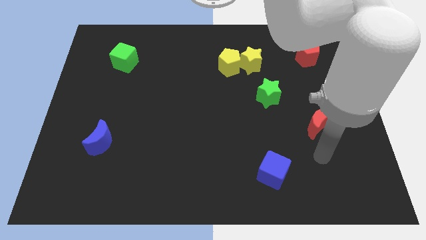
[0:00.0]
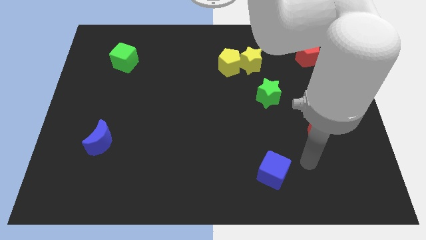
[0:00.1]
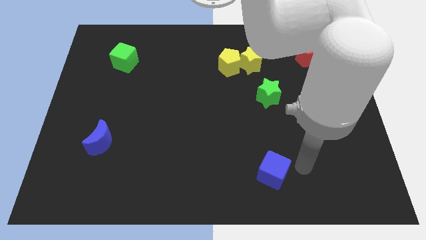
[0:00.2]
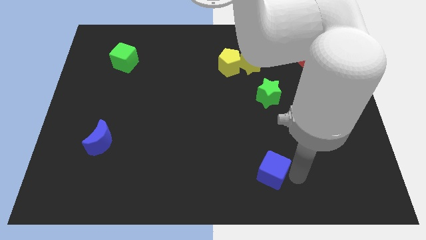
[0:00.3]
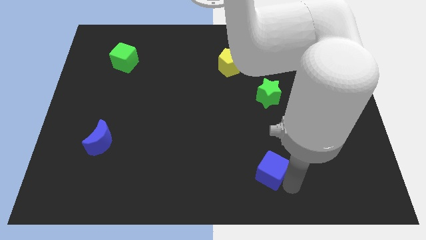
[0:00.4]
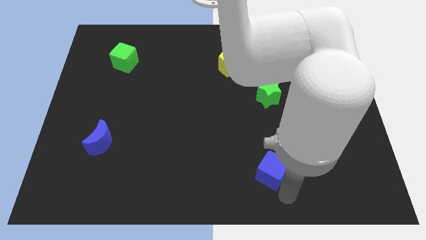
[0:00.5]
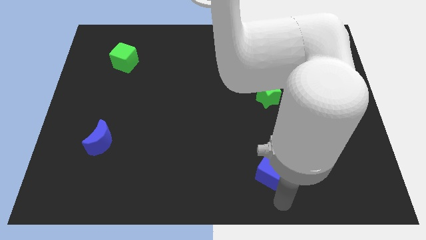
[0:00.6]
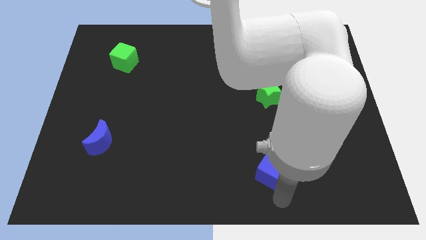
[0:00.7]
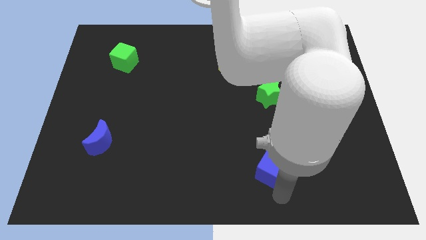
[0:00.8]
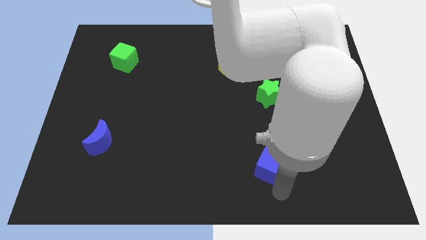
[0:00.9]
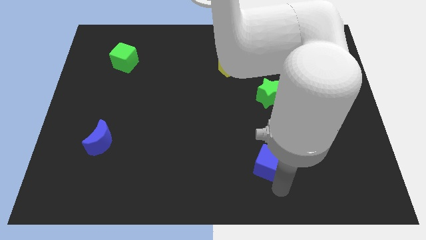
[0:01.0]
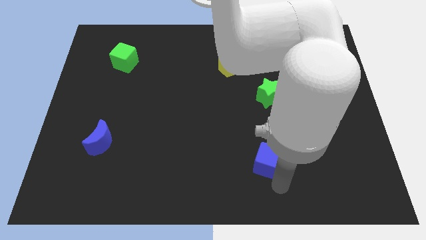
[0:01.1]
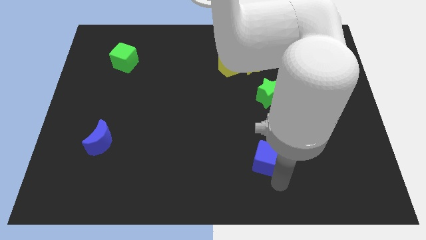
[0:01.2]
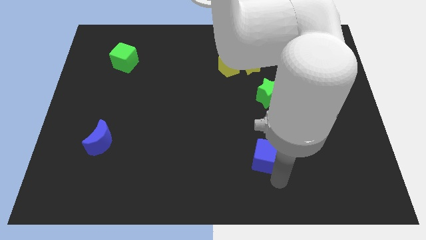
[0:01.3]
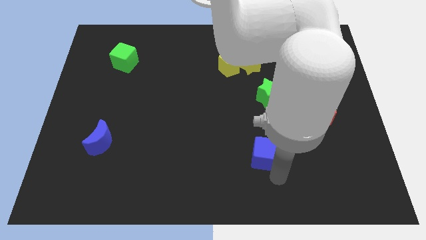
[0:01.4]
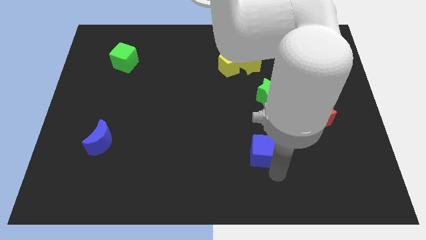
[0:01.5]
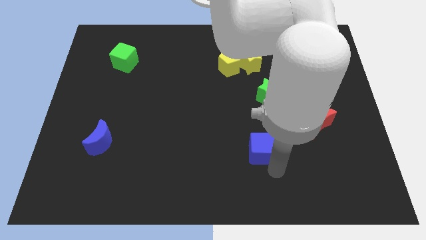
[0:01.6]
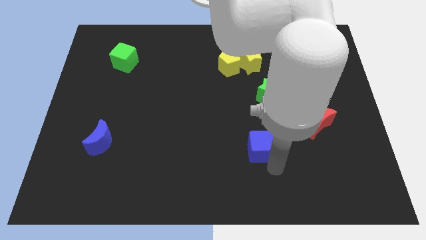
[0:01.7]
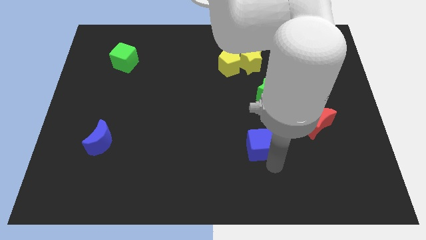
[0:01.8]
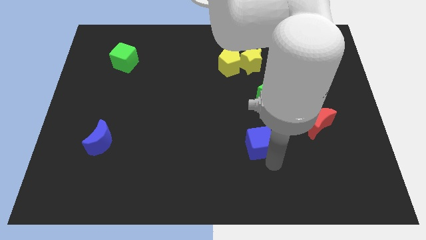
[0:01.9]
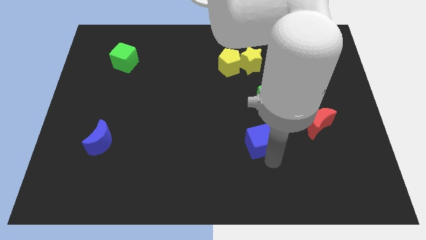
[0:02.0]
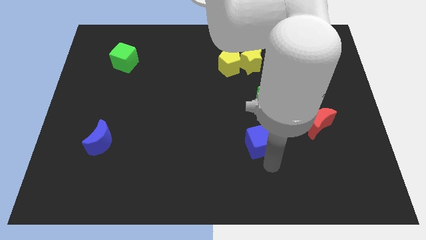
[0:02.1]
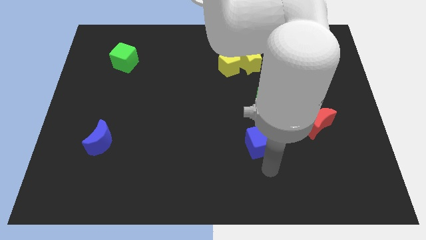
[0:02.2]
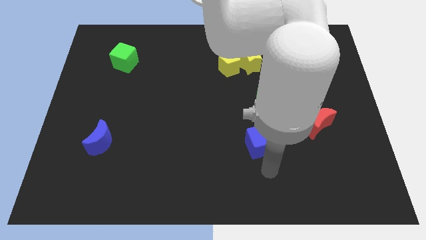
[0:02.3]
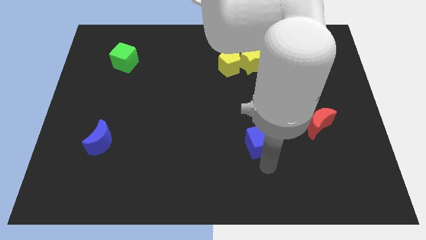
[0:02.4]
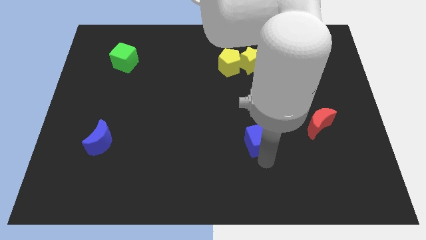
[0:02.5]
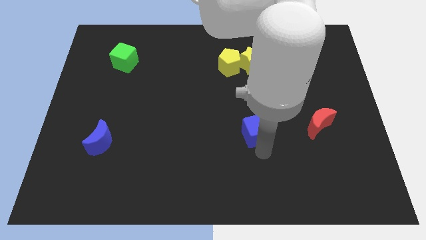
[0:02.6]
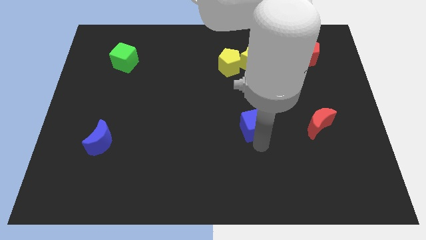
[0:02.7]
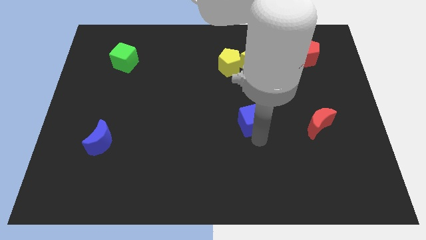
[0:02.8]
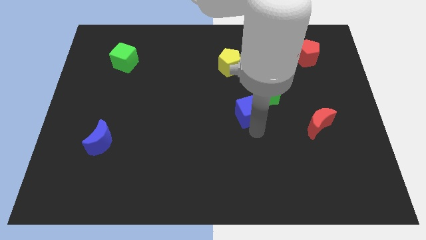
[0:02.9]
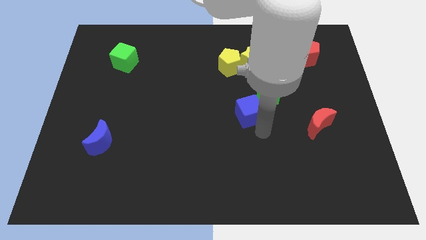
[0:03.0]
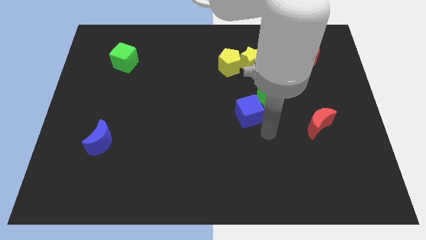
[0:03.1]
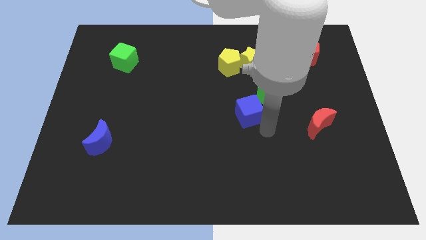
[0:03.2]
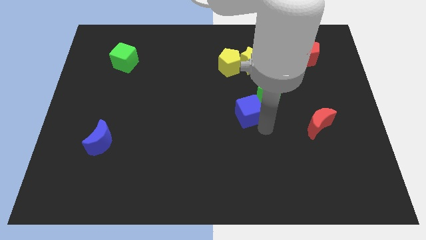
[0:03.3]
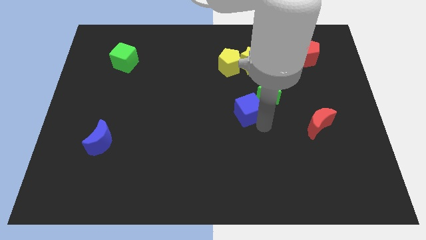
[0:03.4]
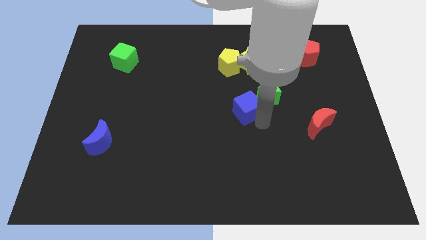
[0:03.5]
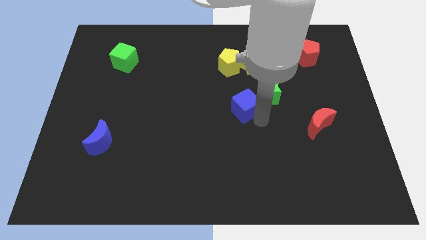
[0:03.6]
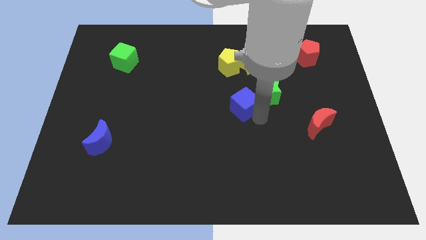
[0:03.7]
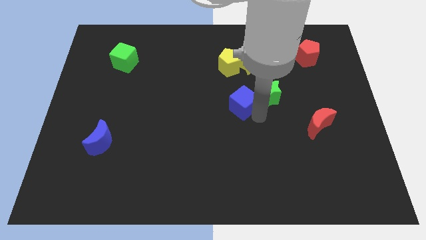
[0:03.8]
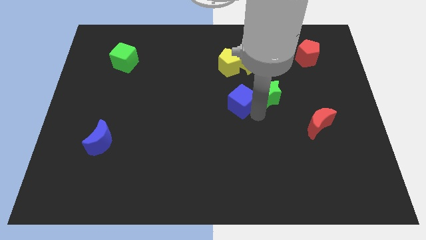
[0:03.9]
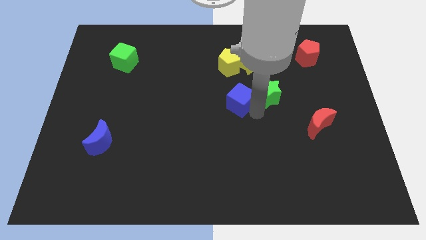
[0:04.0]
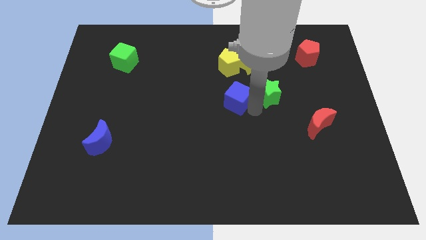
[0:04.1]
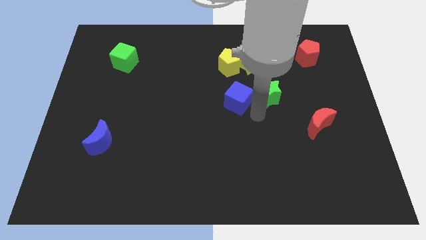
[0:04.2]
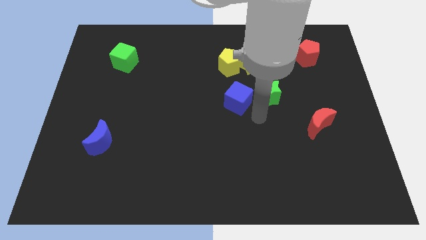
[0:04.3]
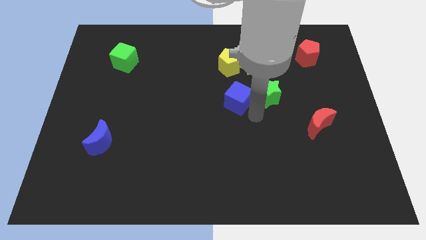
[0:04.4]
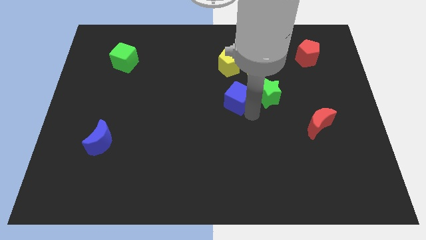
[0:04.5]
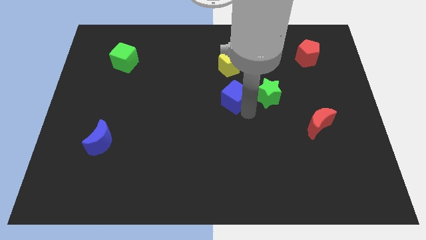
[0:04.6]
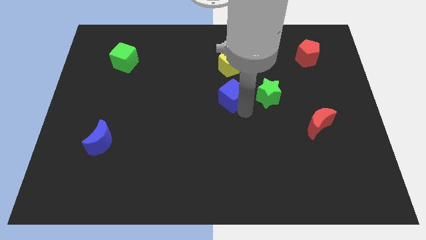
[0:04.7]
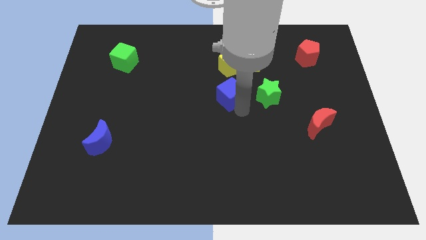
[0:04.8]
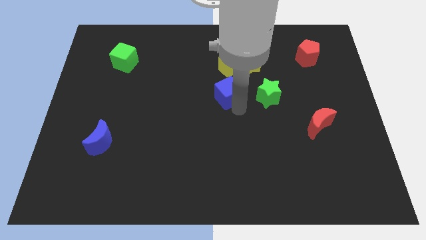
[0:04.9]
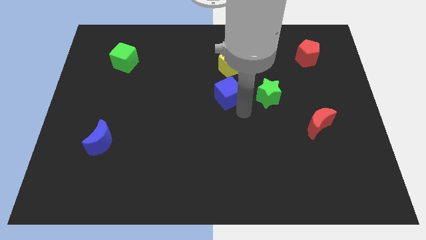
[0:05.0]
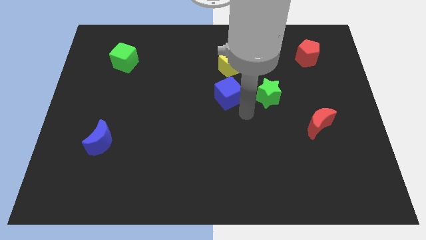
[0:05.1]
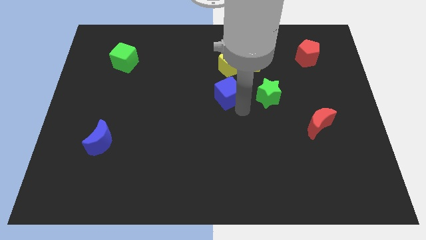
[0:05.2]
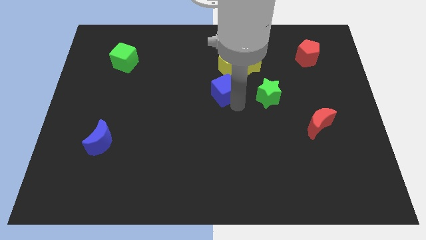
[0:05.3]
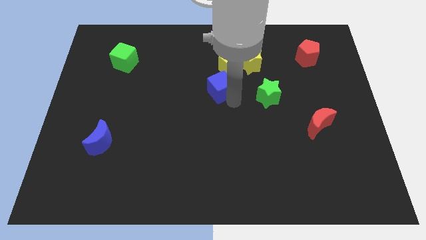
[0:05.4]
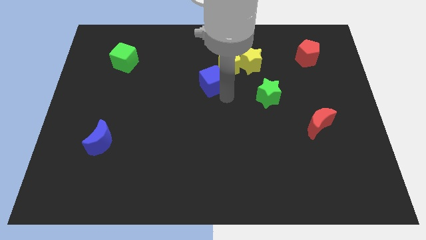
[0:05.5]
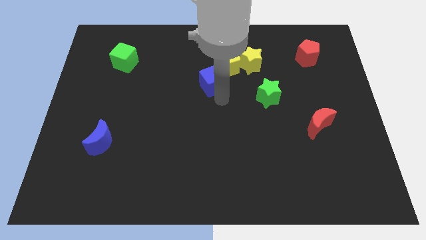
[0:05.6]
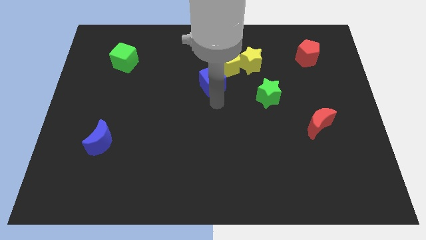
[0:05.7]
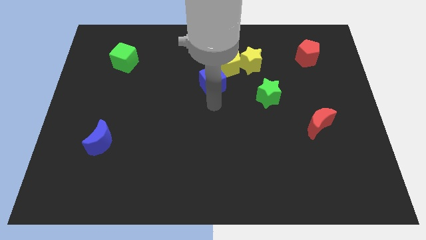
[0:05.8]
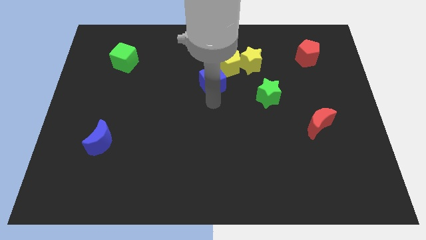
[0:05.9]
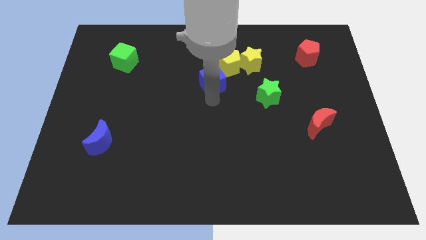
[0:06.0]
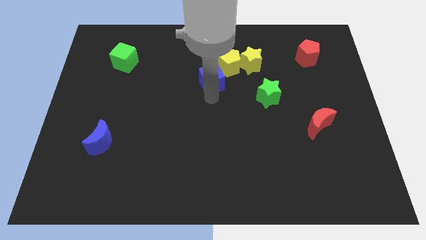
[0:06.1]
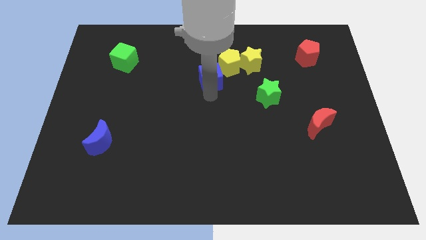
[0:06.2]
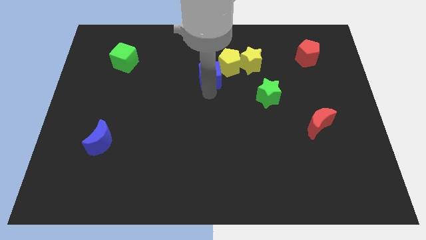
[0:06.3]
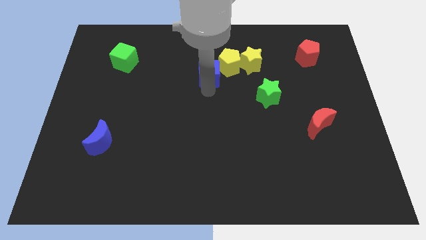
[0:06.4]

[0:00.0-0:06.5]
push the blue cube just left of the yellow star
